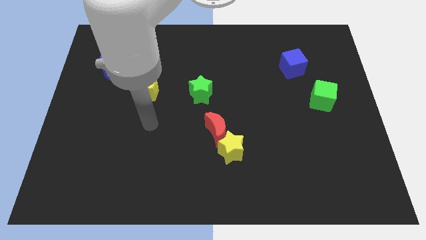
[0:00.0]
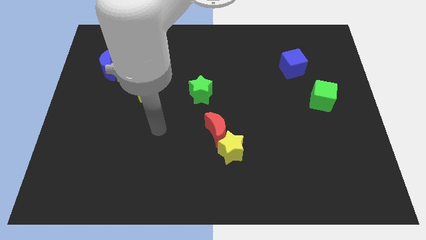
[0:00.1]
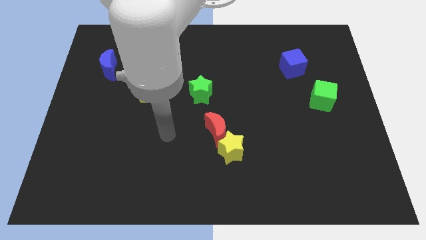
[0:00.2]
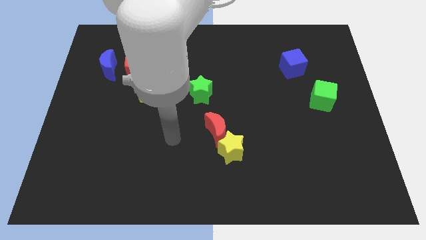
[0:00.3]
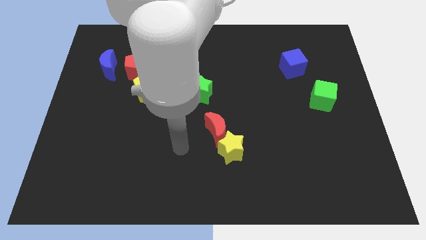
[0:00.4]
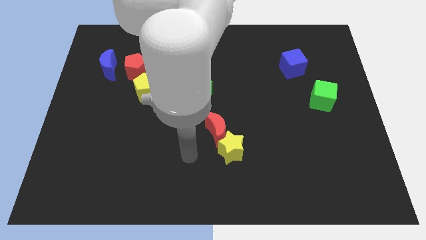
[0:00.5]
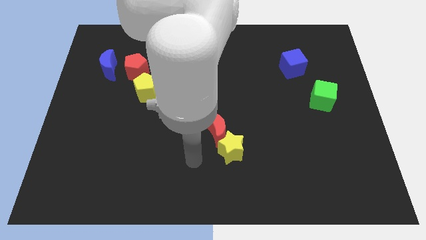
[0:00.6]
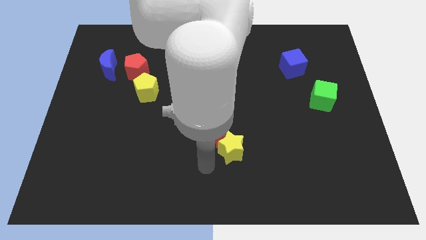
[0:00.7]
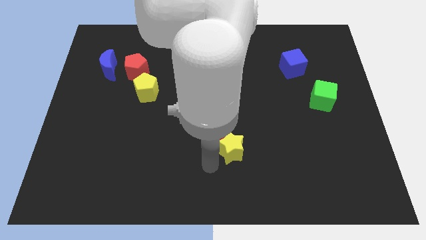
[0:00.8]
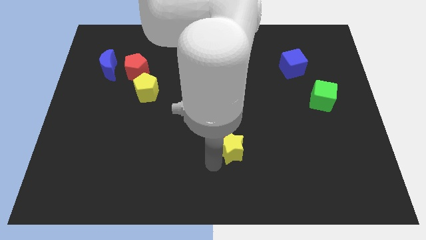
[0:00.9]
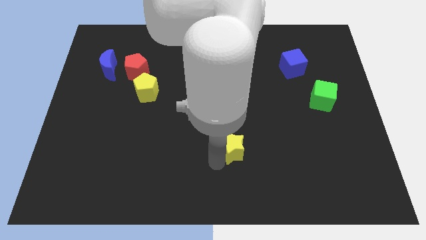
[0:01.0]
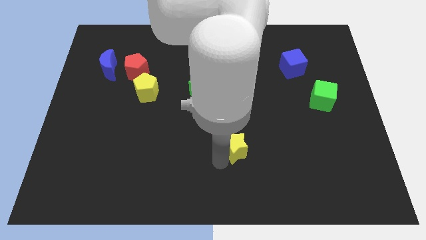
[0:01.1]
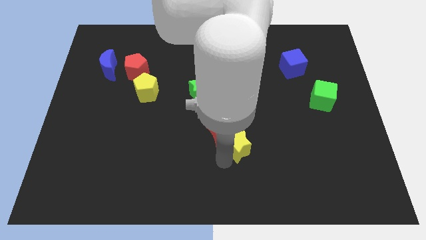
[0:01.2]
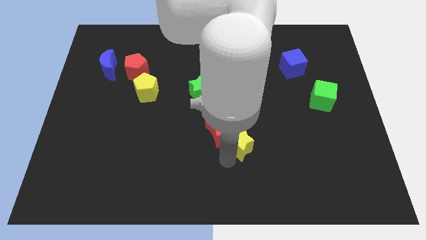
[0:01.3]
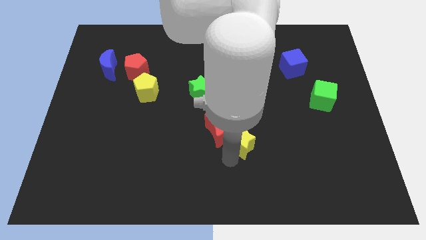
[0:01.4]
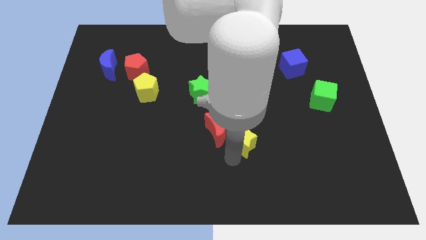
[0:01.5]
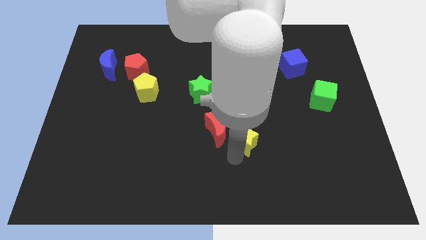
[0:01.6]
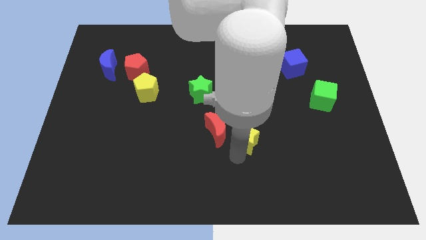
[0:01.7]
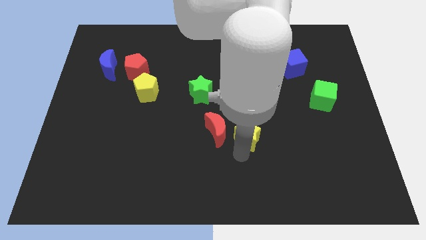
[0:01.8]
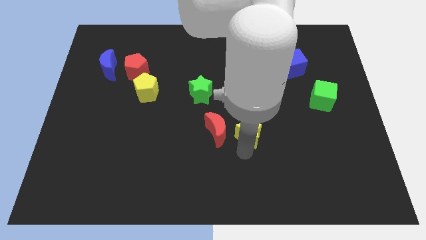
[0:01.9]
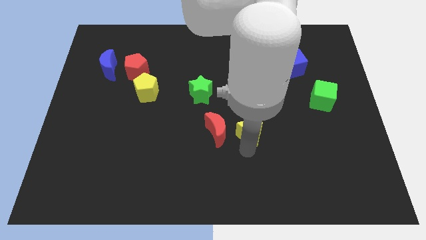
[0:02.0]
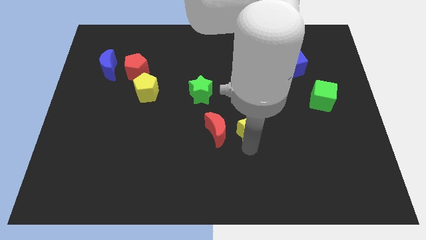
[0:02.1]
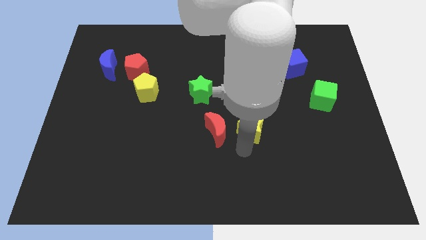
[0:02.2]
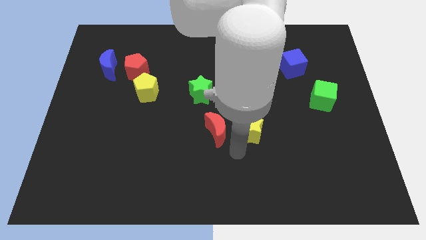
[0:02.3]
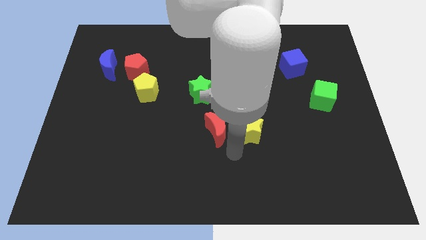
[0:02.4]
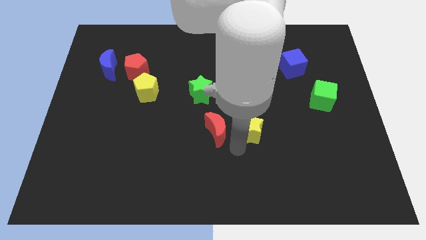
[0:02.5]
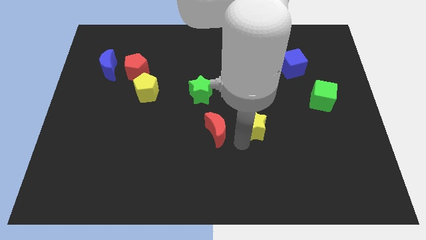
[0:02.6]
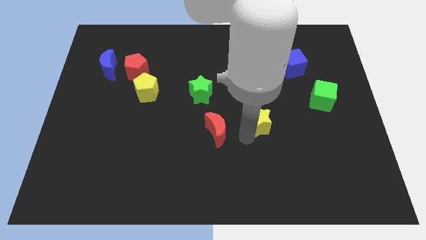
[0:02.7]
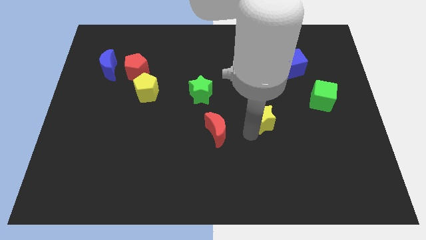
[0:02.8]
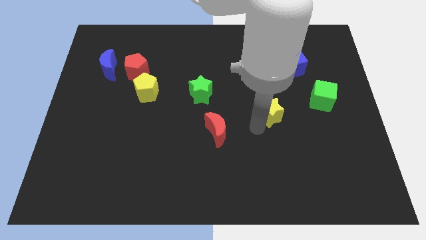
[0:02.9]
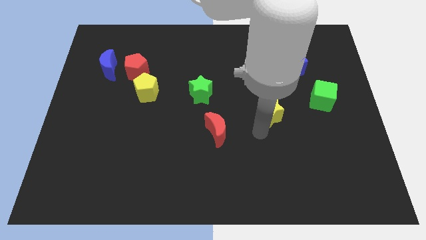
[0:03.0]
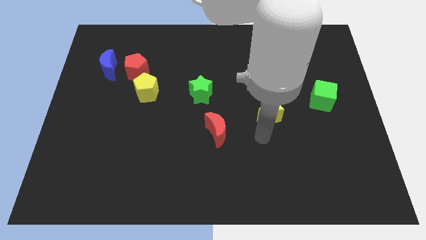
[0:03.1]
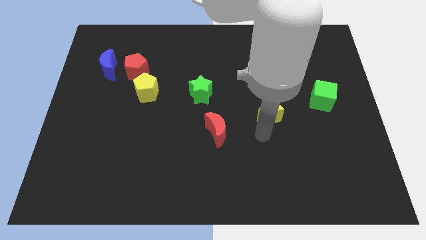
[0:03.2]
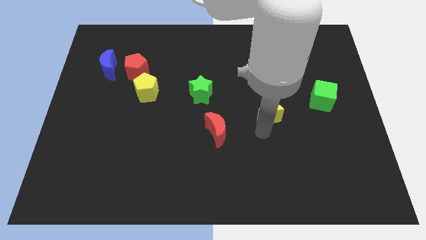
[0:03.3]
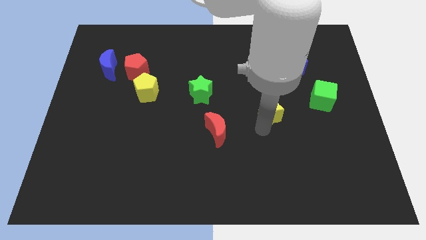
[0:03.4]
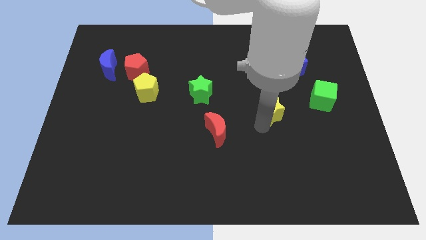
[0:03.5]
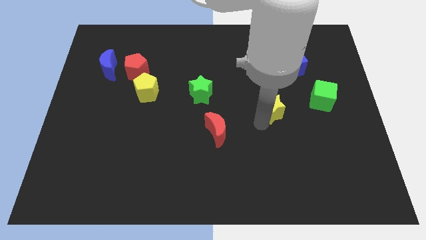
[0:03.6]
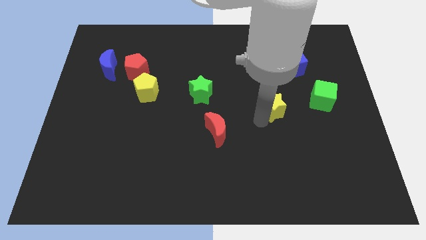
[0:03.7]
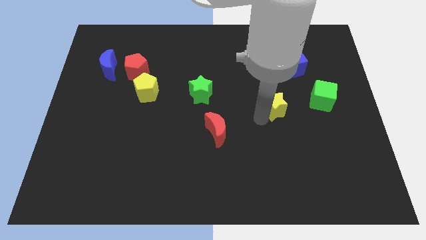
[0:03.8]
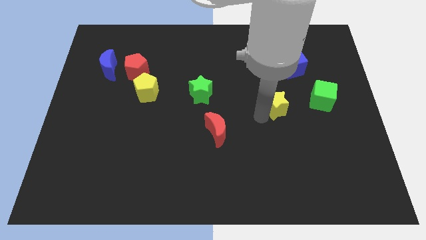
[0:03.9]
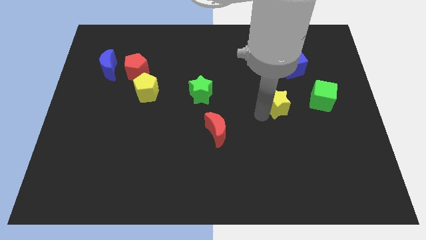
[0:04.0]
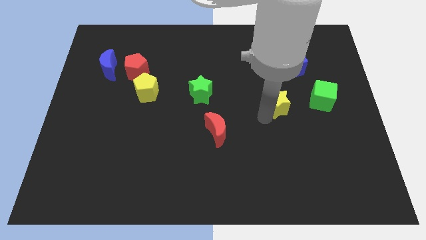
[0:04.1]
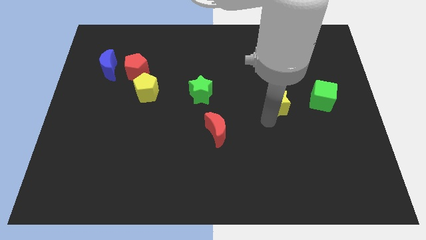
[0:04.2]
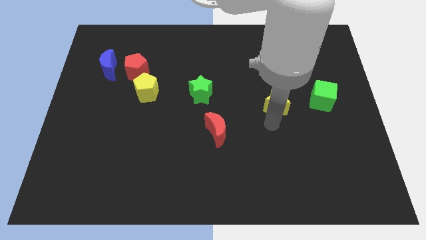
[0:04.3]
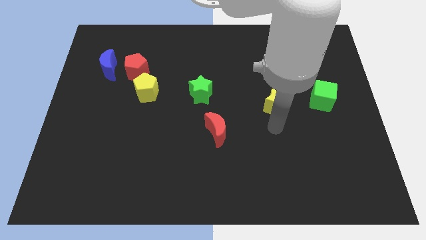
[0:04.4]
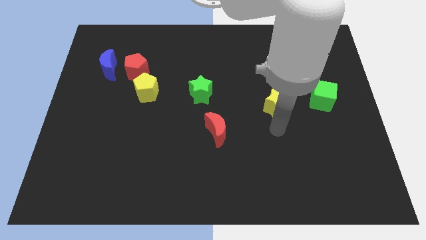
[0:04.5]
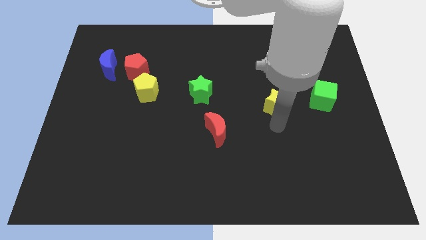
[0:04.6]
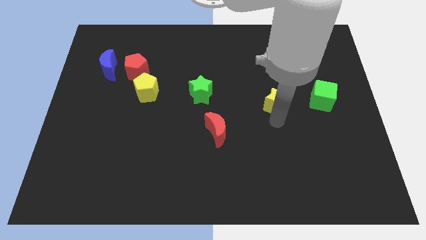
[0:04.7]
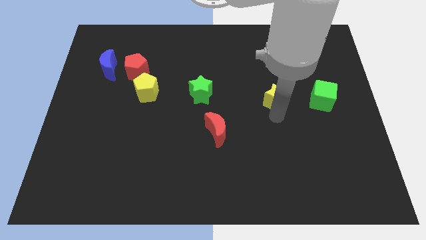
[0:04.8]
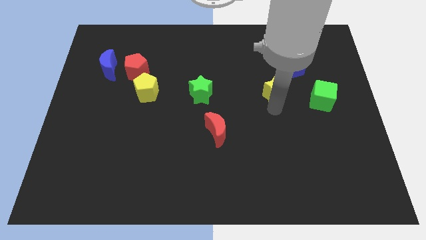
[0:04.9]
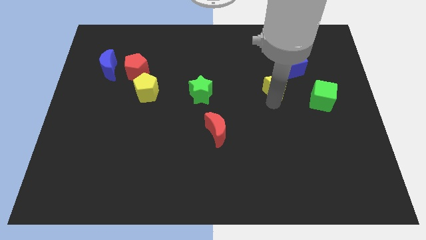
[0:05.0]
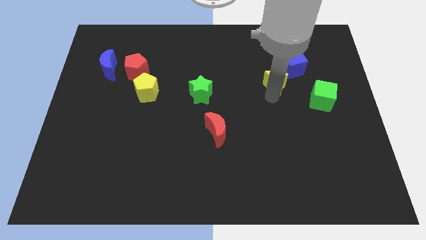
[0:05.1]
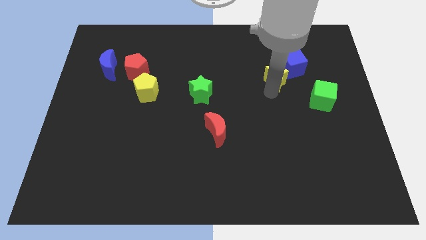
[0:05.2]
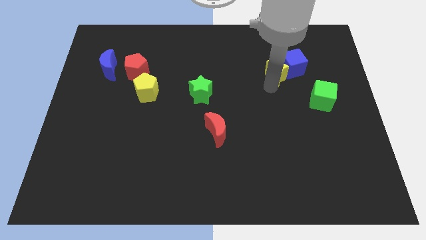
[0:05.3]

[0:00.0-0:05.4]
put the yellow star to the blue cube

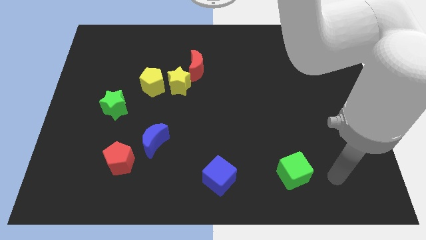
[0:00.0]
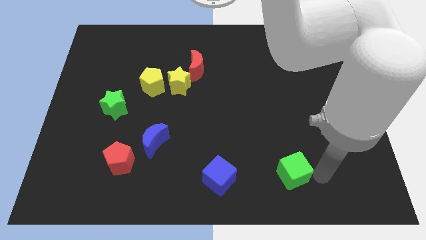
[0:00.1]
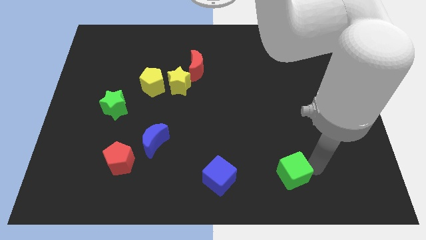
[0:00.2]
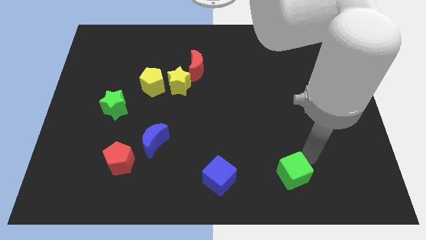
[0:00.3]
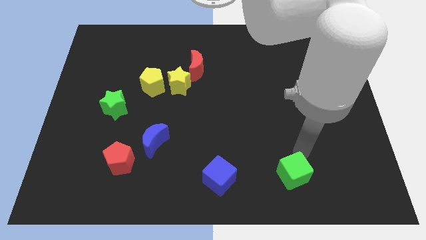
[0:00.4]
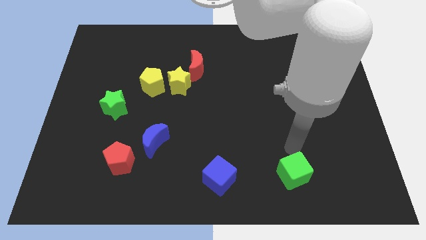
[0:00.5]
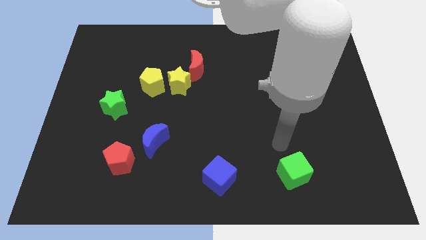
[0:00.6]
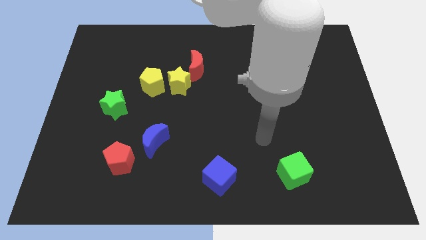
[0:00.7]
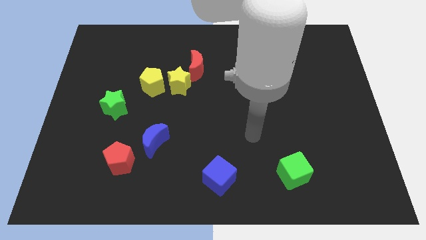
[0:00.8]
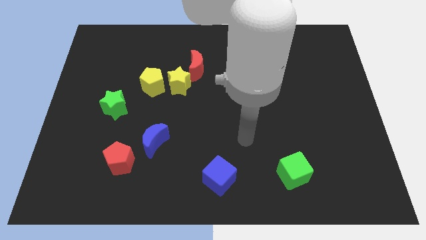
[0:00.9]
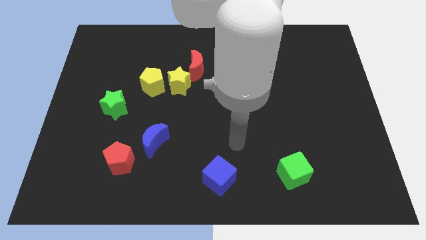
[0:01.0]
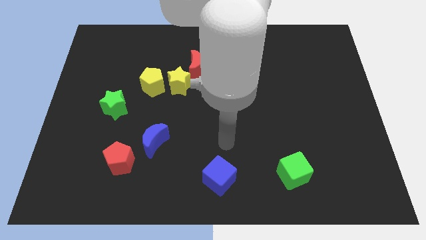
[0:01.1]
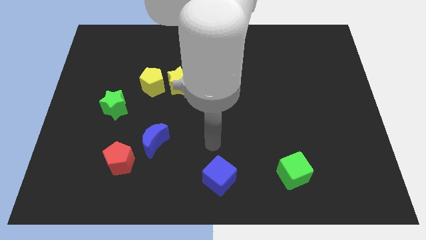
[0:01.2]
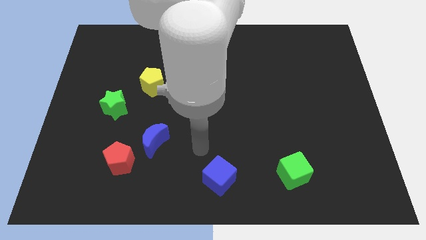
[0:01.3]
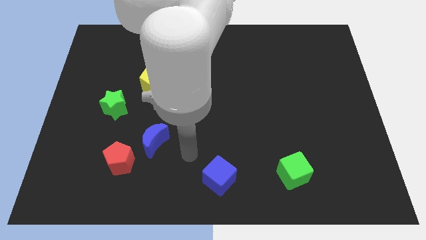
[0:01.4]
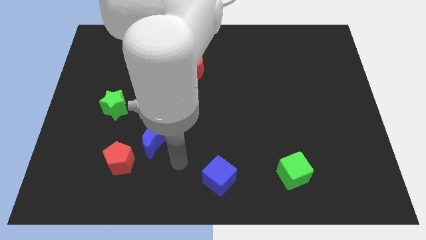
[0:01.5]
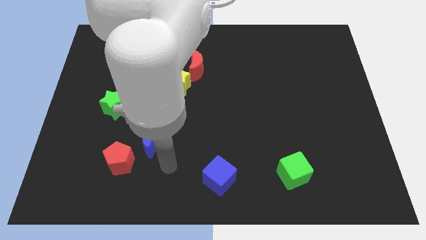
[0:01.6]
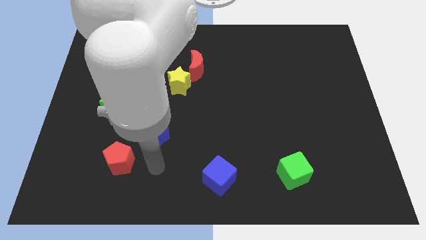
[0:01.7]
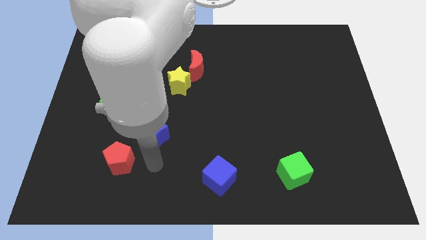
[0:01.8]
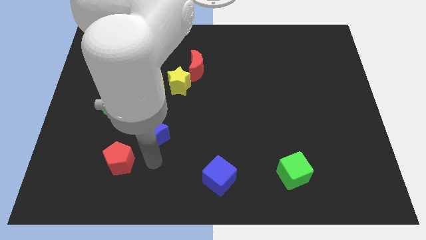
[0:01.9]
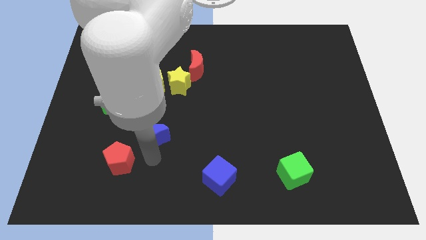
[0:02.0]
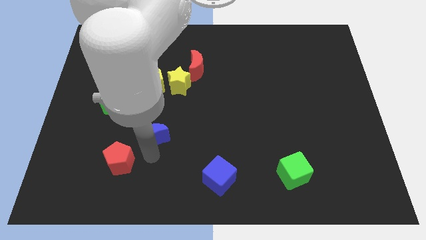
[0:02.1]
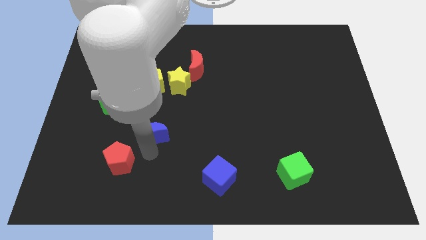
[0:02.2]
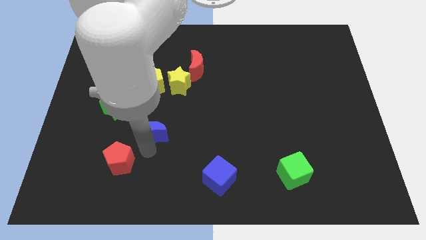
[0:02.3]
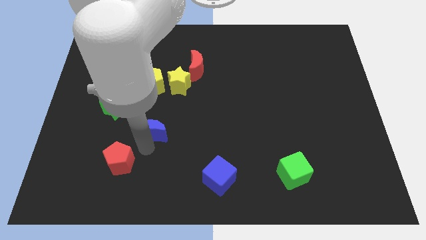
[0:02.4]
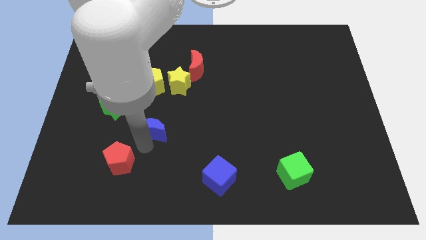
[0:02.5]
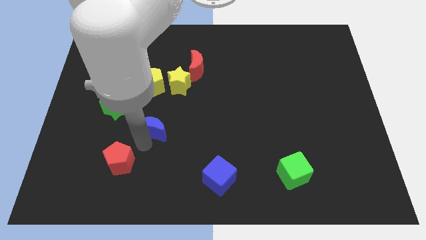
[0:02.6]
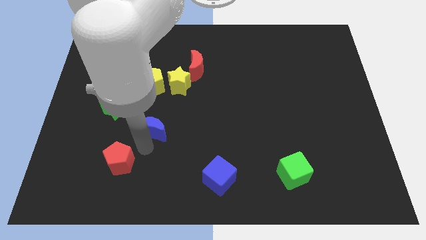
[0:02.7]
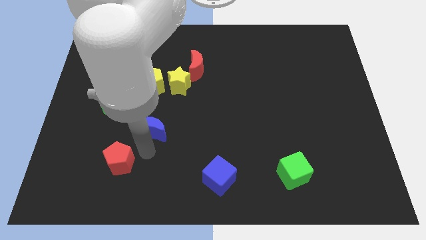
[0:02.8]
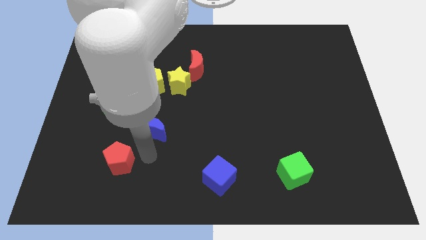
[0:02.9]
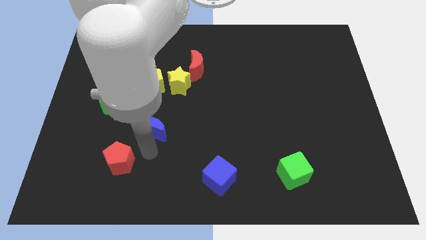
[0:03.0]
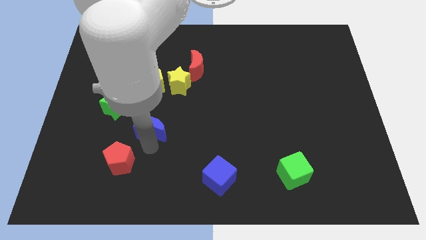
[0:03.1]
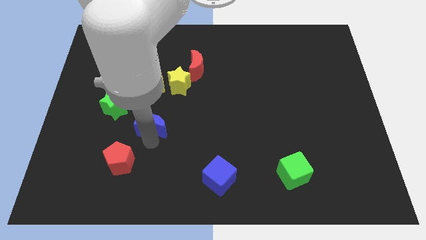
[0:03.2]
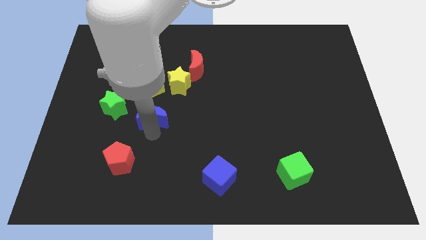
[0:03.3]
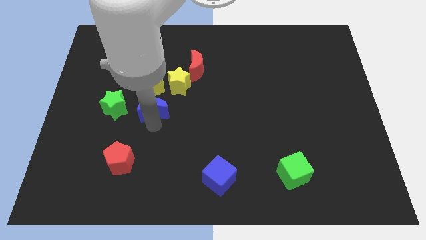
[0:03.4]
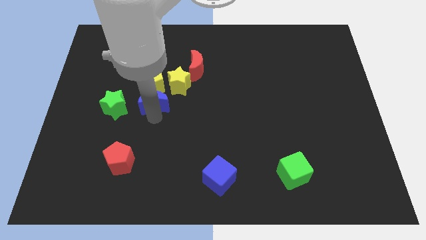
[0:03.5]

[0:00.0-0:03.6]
push the blue moon next to the yellow pentagon
